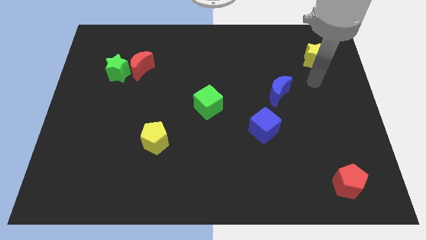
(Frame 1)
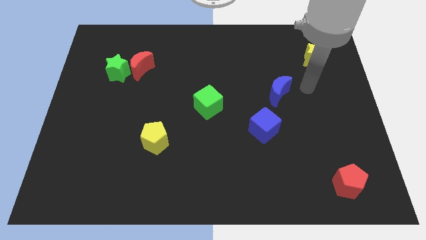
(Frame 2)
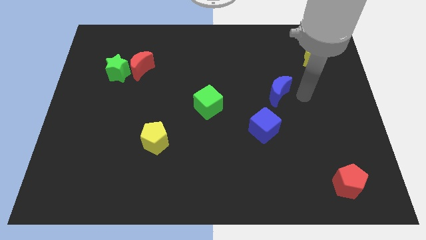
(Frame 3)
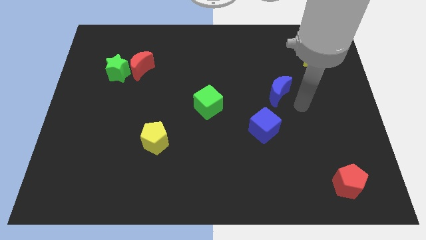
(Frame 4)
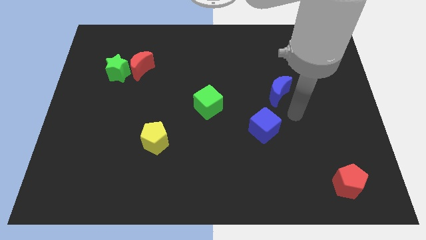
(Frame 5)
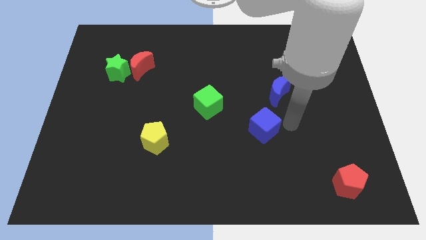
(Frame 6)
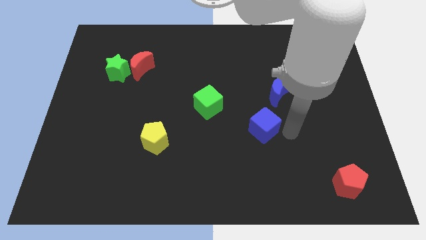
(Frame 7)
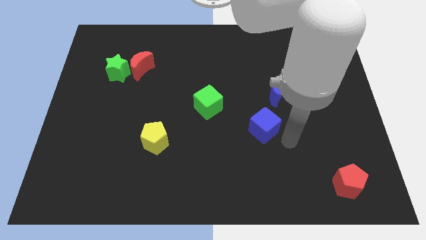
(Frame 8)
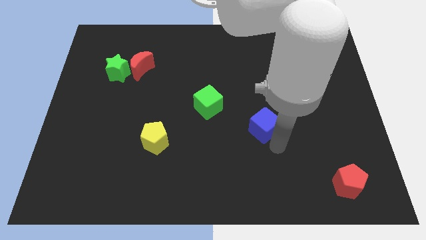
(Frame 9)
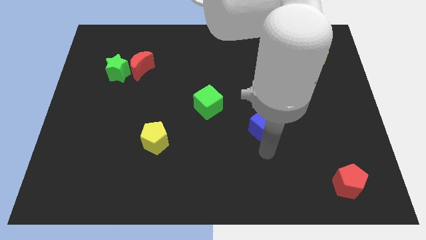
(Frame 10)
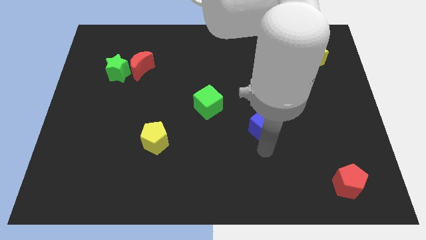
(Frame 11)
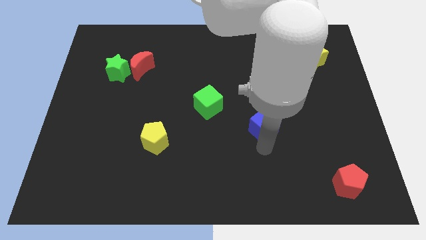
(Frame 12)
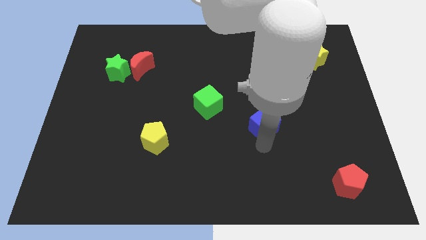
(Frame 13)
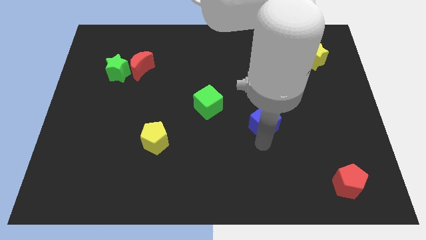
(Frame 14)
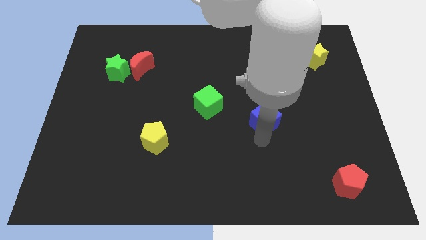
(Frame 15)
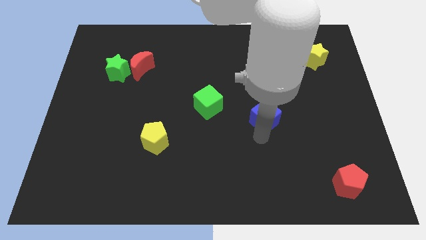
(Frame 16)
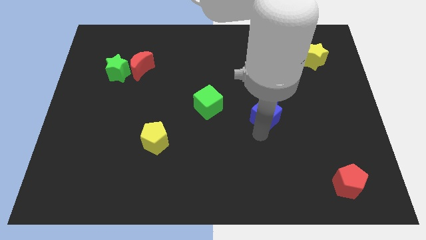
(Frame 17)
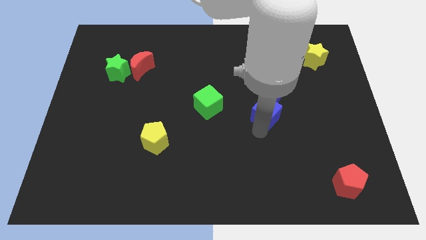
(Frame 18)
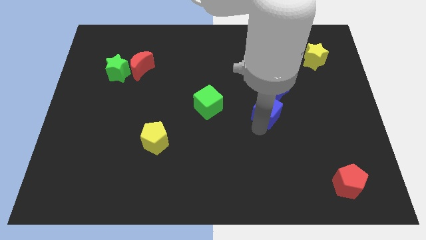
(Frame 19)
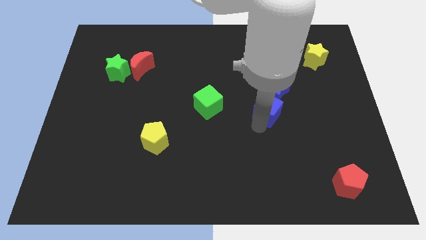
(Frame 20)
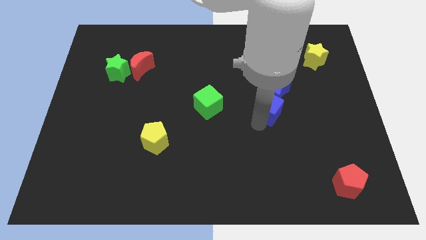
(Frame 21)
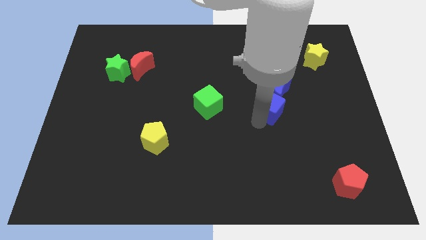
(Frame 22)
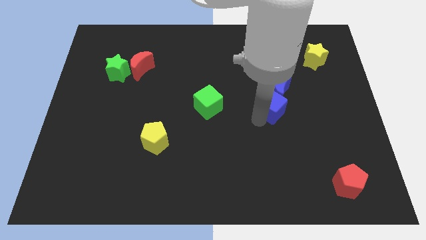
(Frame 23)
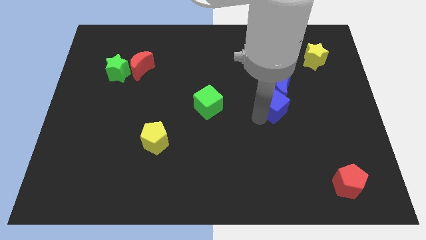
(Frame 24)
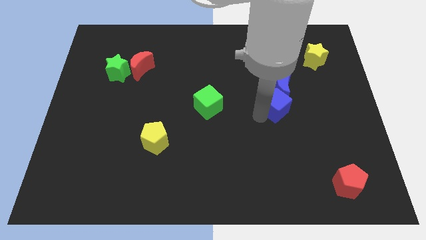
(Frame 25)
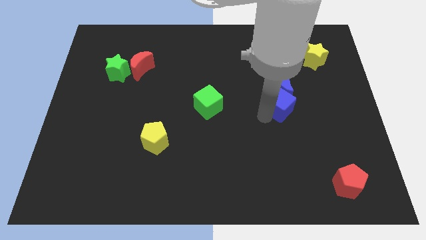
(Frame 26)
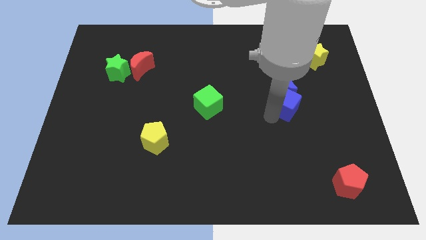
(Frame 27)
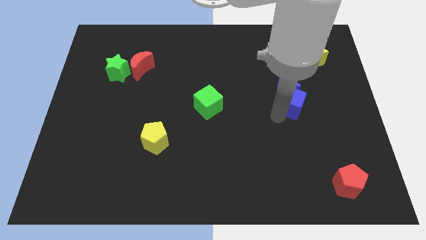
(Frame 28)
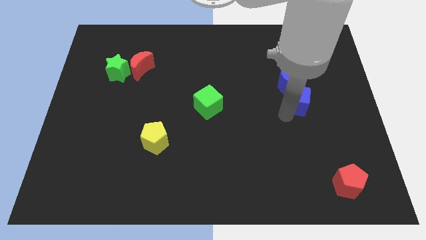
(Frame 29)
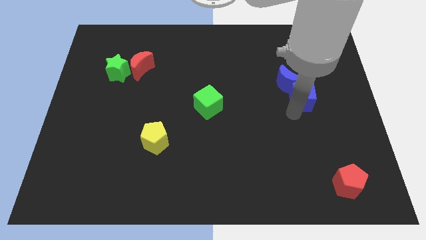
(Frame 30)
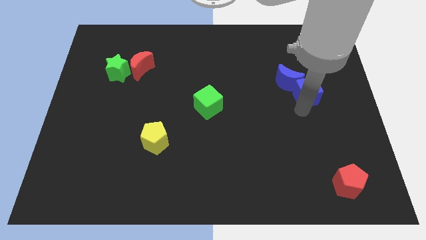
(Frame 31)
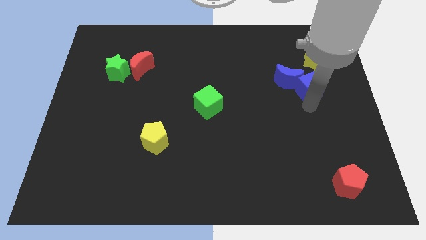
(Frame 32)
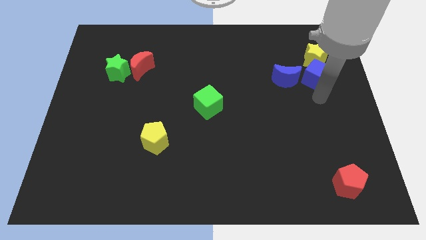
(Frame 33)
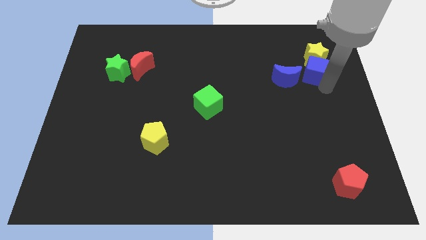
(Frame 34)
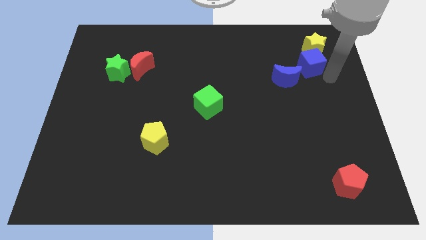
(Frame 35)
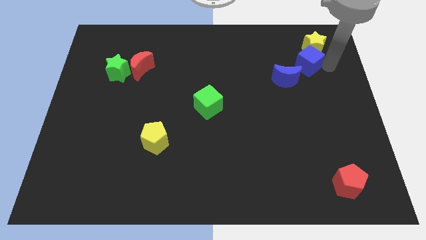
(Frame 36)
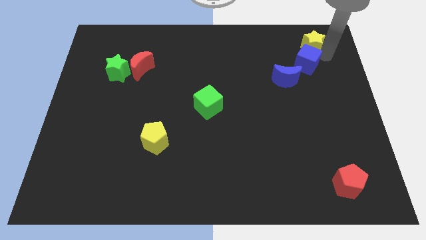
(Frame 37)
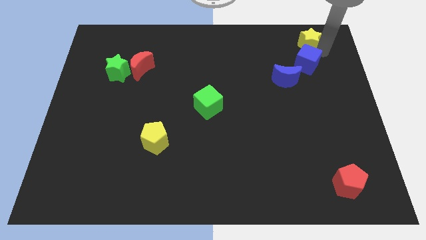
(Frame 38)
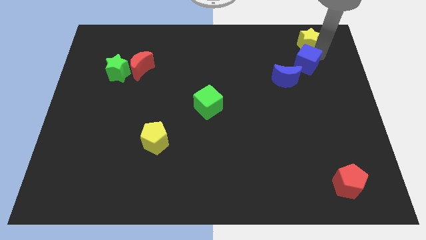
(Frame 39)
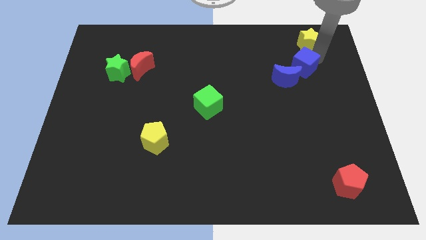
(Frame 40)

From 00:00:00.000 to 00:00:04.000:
slightly slide the blue cube up

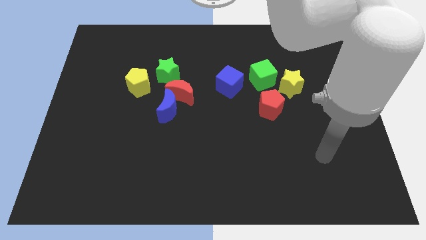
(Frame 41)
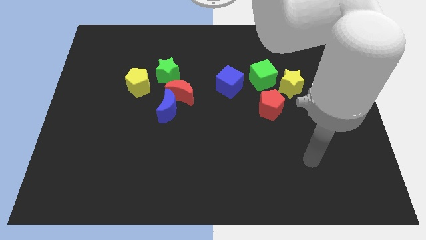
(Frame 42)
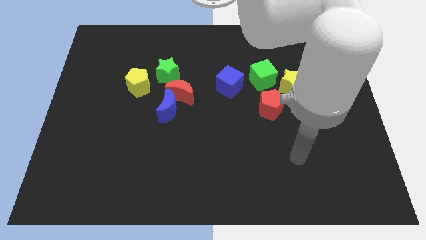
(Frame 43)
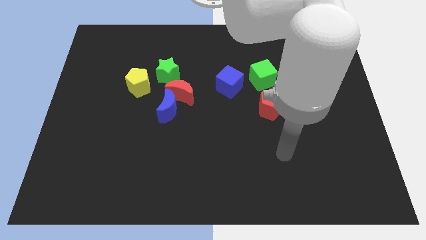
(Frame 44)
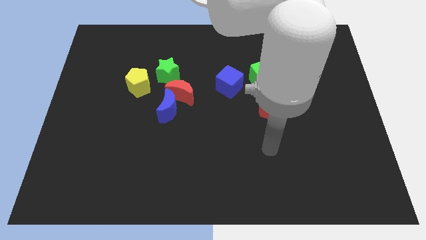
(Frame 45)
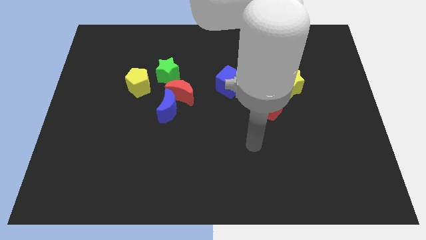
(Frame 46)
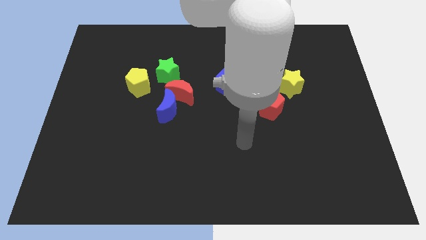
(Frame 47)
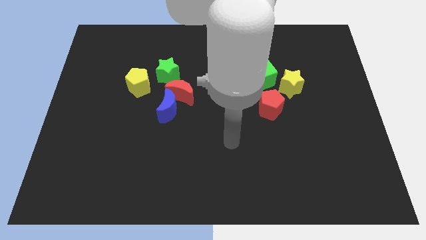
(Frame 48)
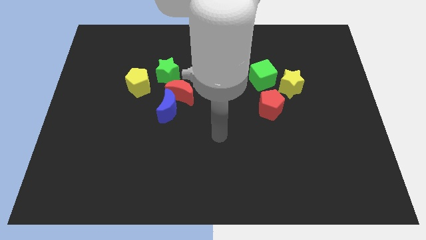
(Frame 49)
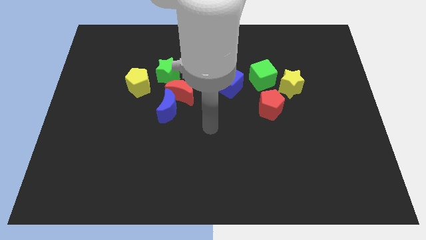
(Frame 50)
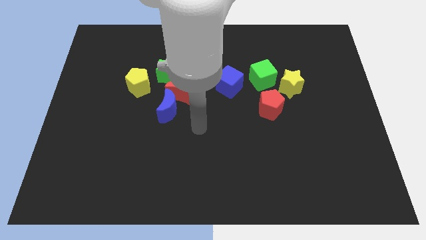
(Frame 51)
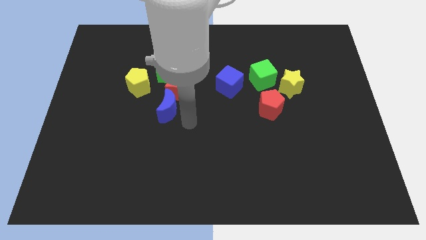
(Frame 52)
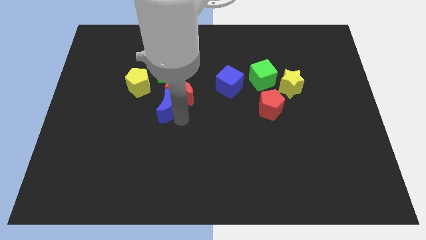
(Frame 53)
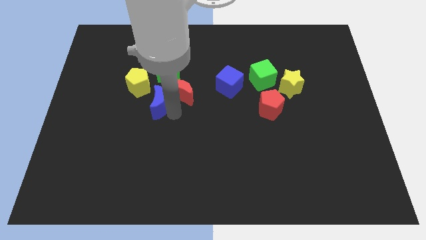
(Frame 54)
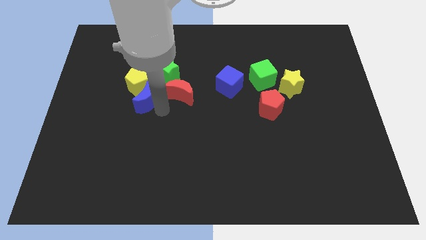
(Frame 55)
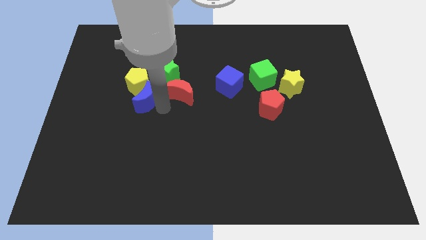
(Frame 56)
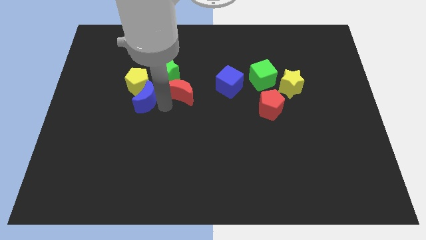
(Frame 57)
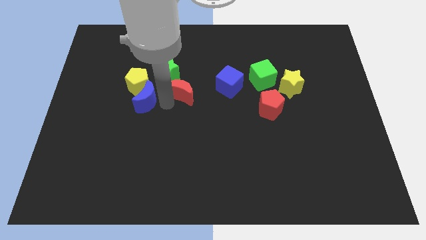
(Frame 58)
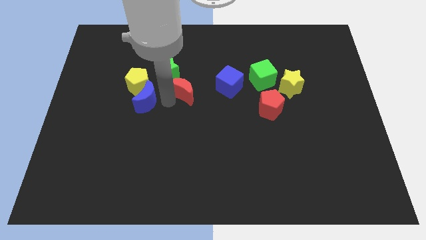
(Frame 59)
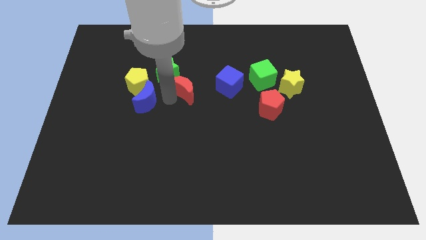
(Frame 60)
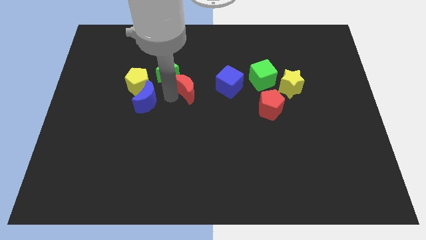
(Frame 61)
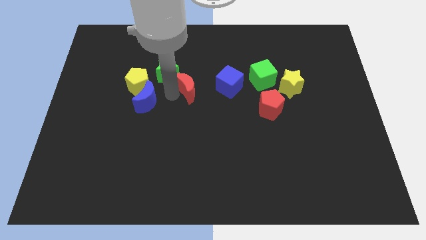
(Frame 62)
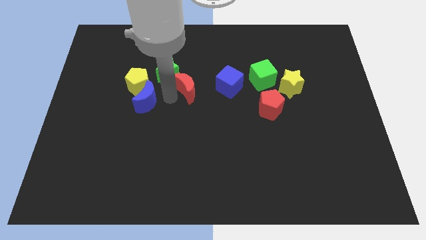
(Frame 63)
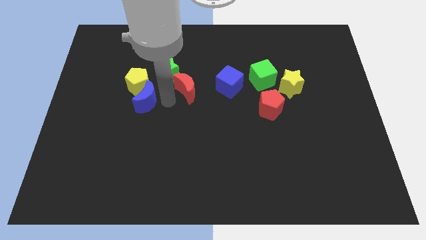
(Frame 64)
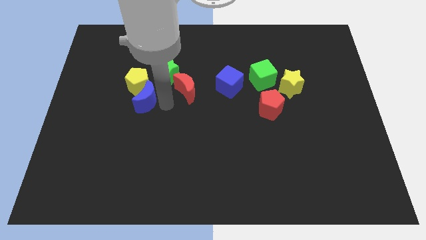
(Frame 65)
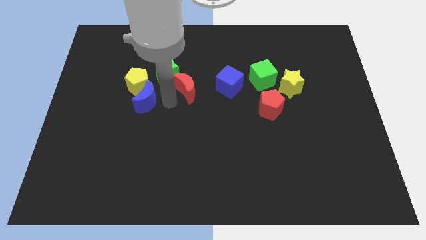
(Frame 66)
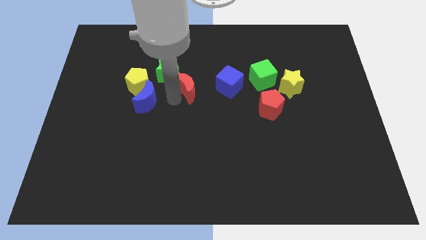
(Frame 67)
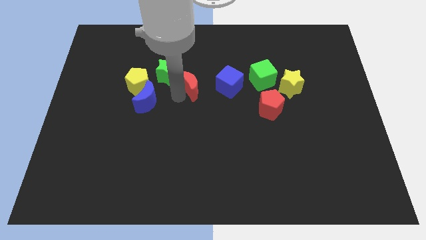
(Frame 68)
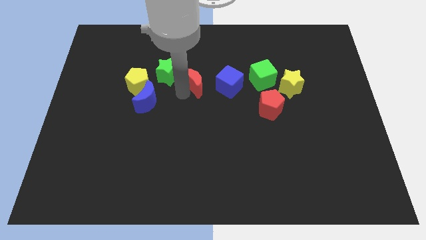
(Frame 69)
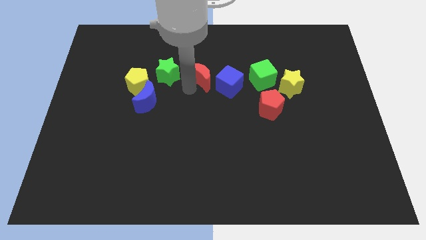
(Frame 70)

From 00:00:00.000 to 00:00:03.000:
move the red moon a little bit upwards and to the right diagonally

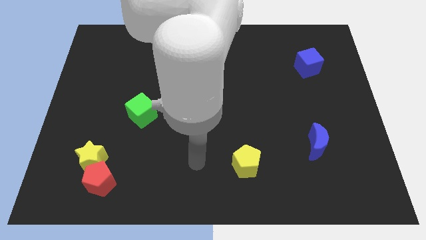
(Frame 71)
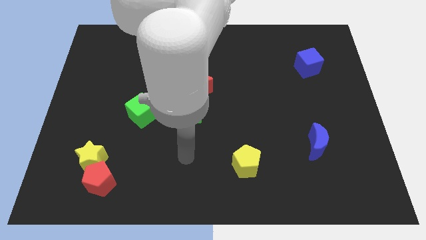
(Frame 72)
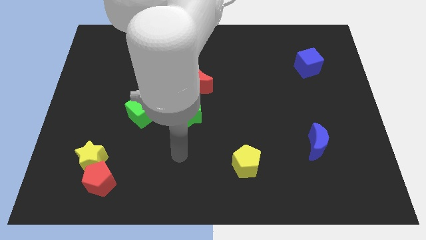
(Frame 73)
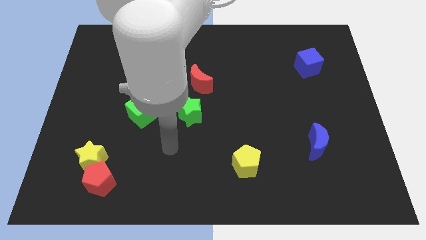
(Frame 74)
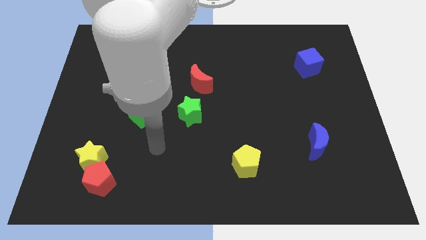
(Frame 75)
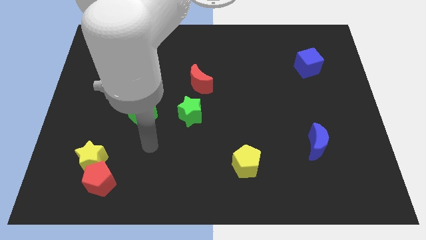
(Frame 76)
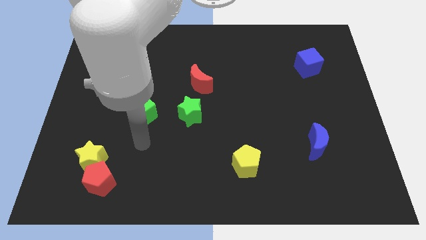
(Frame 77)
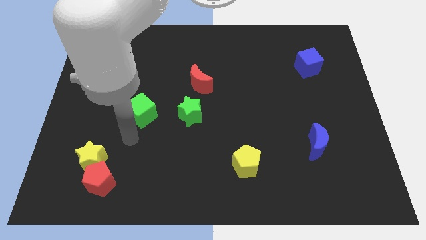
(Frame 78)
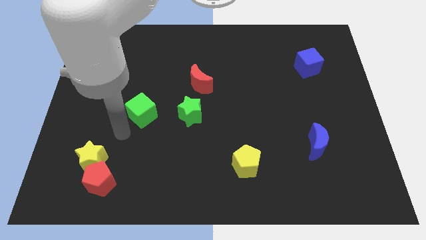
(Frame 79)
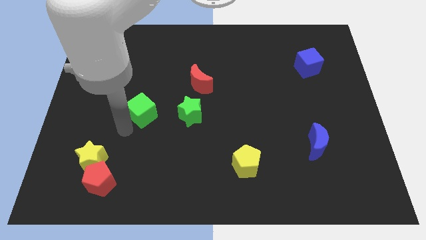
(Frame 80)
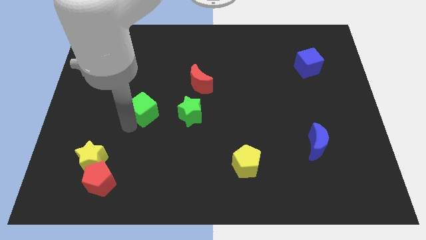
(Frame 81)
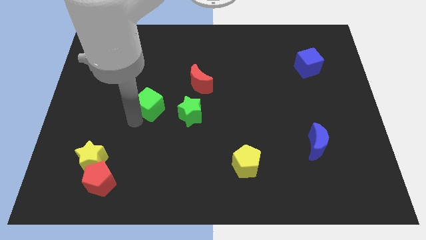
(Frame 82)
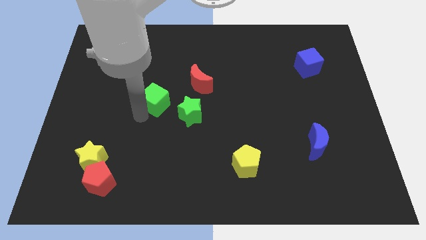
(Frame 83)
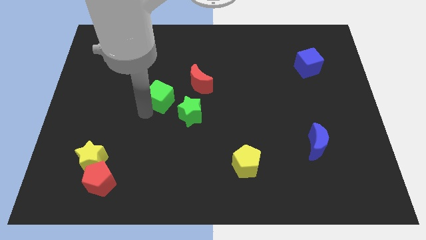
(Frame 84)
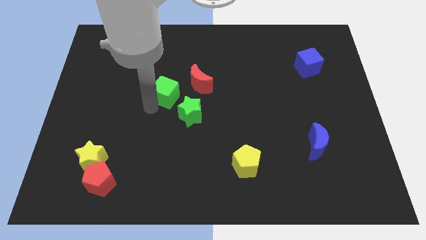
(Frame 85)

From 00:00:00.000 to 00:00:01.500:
push the green cube a little up and then right
